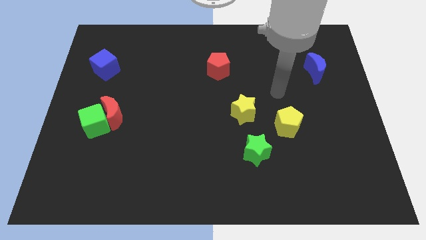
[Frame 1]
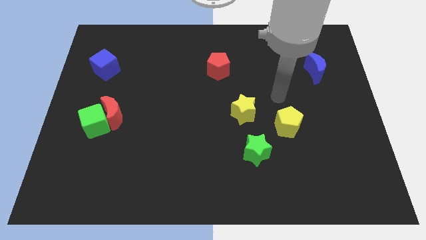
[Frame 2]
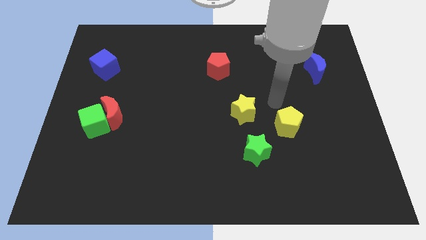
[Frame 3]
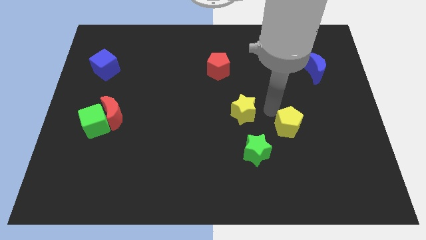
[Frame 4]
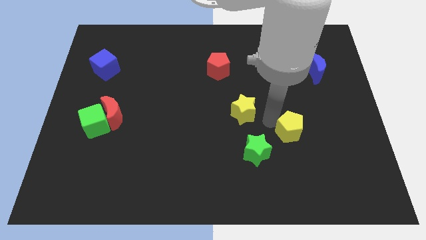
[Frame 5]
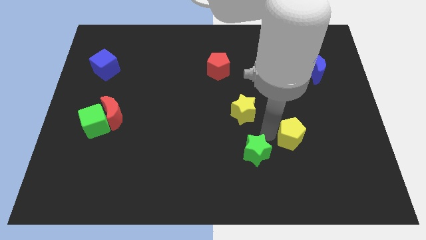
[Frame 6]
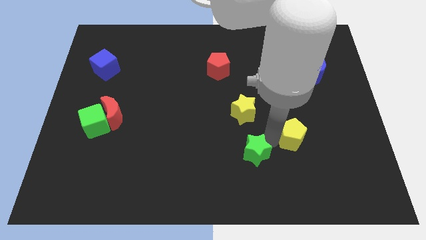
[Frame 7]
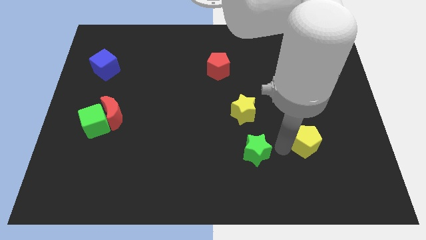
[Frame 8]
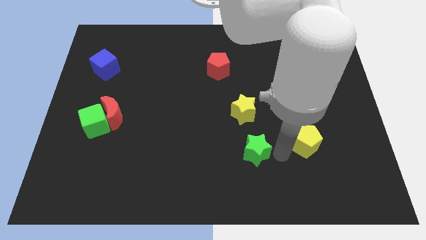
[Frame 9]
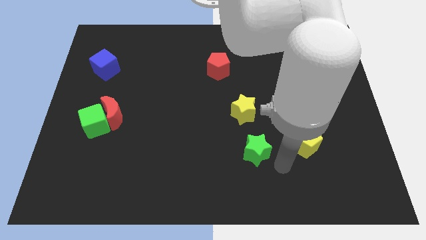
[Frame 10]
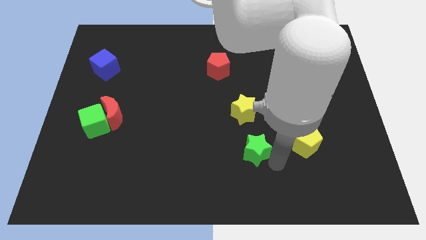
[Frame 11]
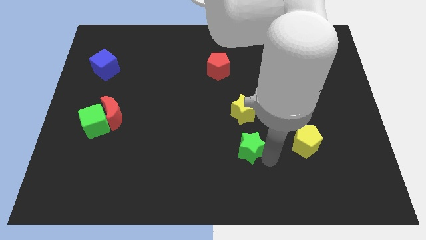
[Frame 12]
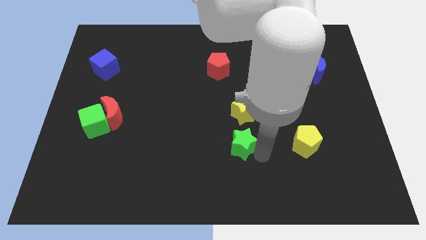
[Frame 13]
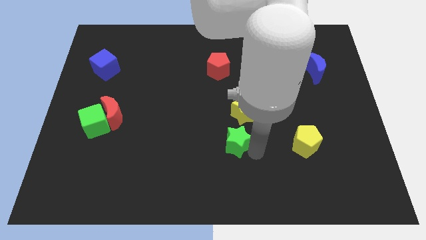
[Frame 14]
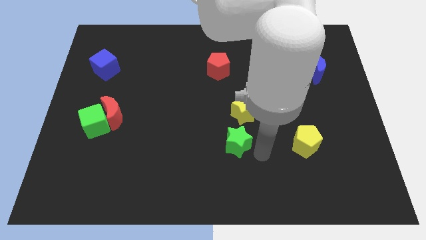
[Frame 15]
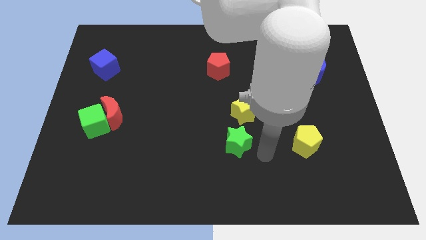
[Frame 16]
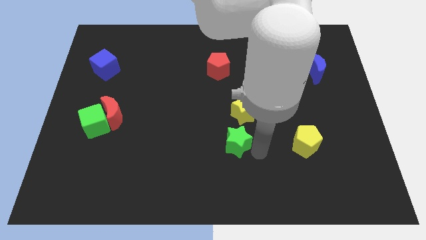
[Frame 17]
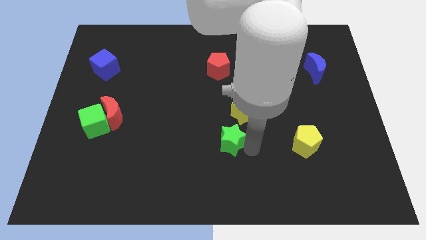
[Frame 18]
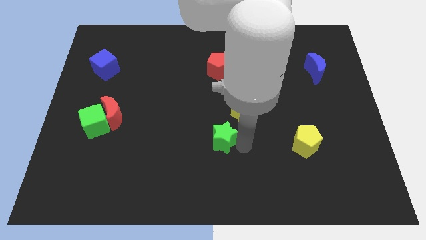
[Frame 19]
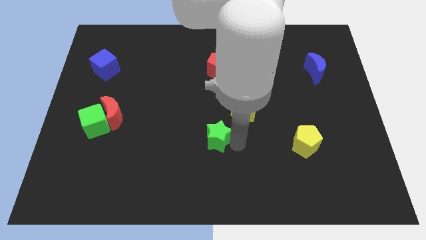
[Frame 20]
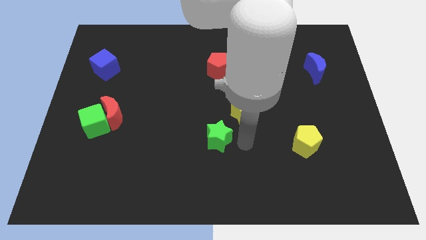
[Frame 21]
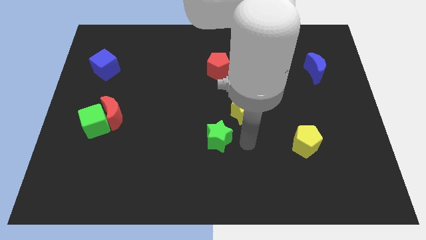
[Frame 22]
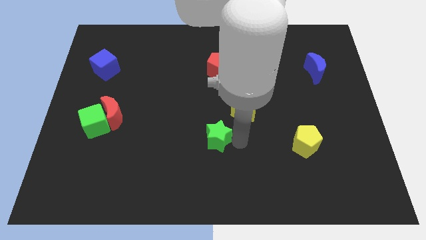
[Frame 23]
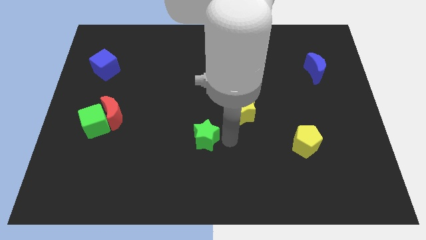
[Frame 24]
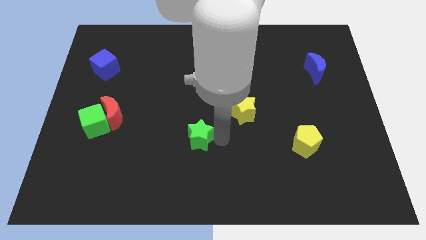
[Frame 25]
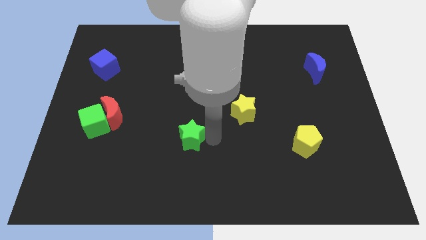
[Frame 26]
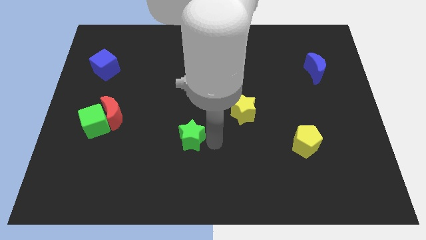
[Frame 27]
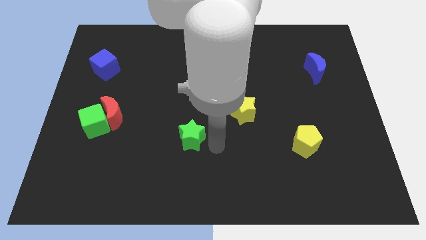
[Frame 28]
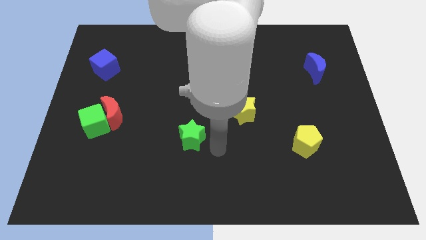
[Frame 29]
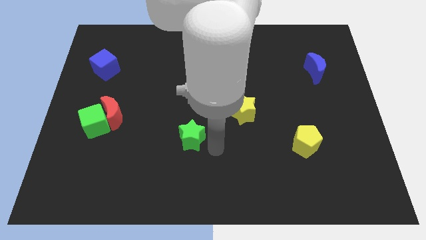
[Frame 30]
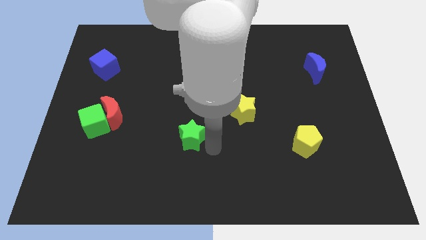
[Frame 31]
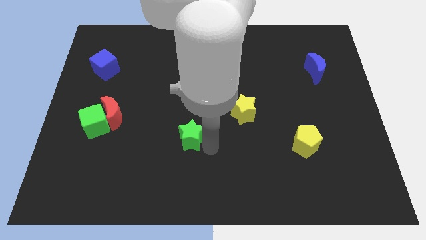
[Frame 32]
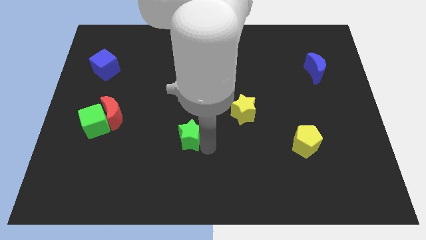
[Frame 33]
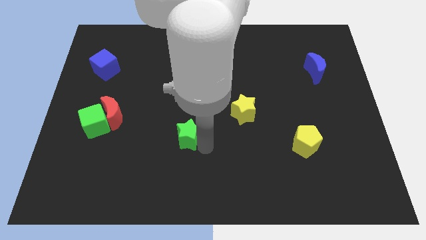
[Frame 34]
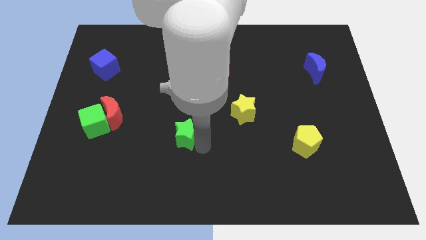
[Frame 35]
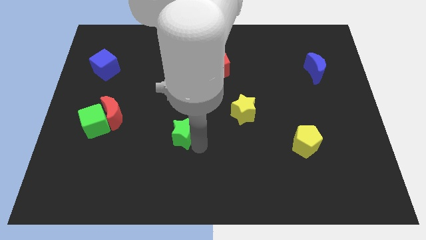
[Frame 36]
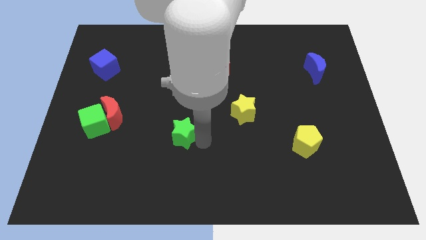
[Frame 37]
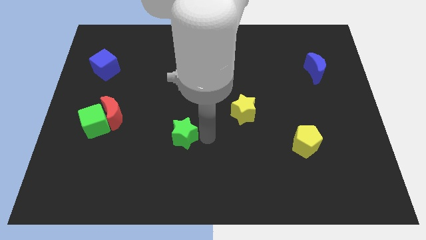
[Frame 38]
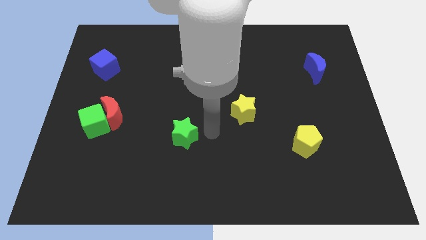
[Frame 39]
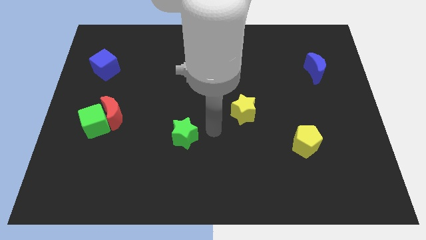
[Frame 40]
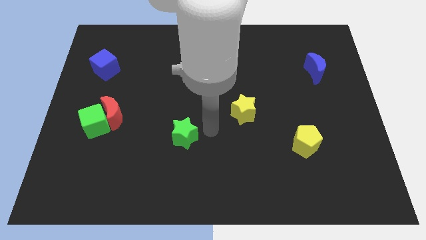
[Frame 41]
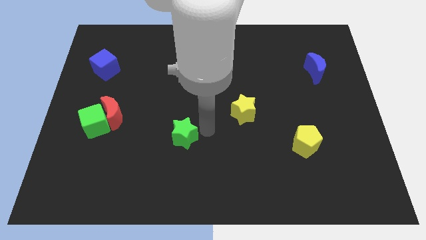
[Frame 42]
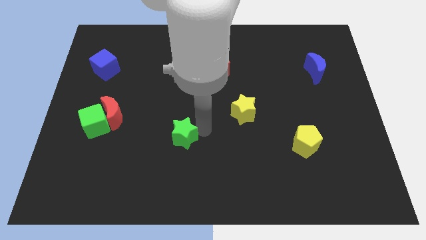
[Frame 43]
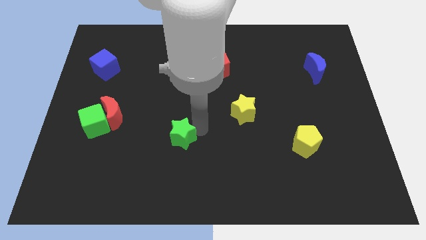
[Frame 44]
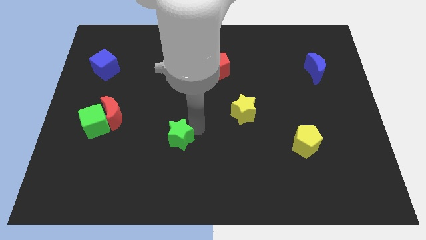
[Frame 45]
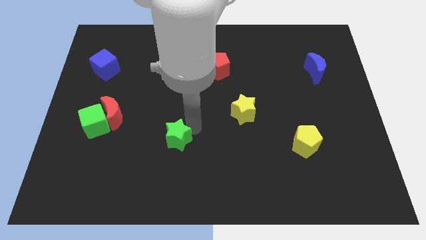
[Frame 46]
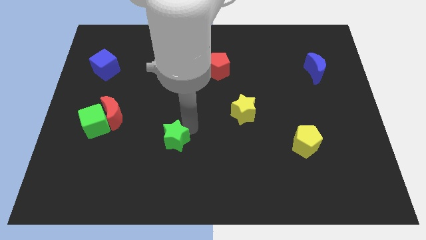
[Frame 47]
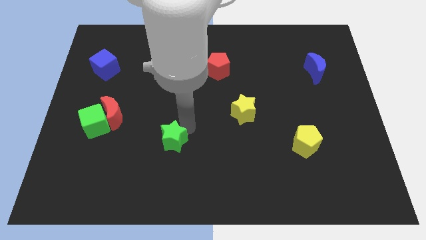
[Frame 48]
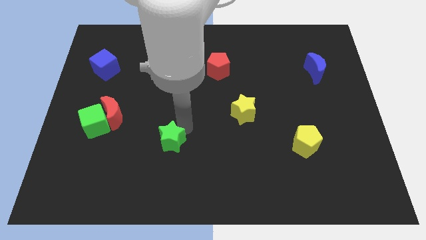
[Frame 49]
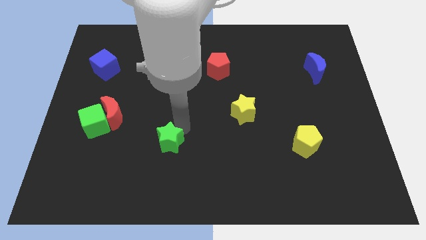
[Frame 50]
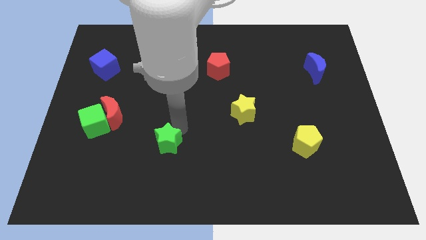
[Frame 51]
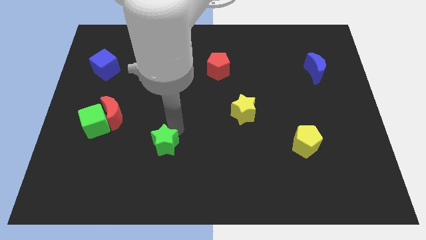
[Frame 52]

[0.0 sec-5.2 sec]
slide the green star left

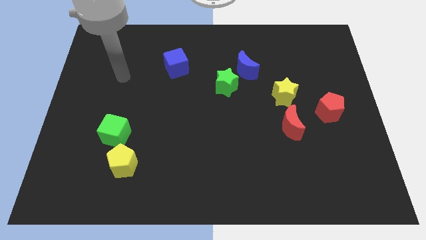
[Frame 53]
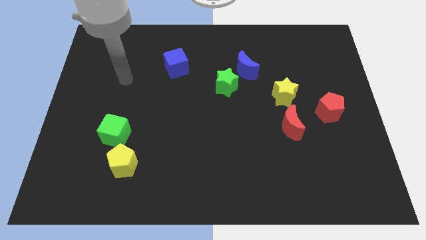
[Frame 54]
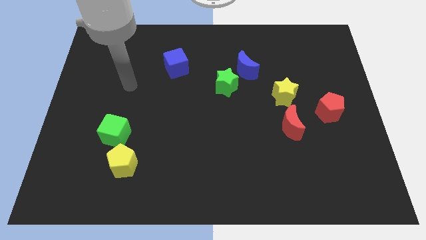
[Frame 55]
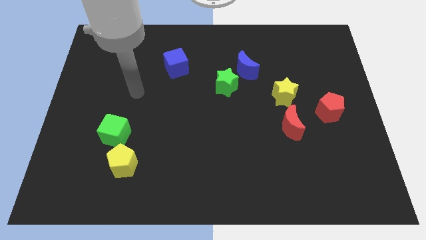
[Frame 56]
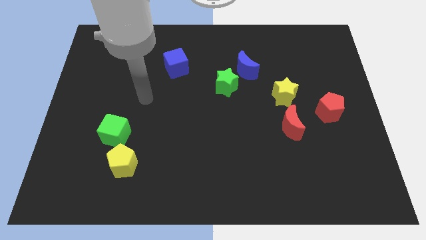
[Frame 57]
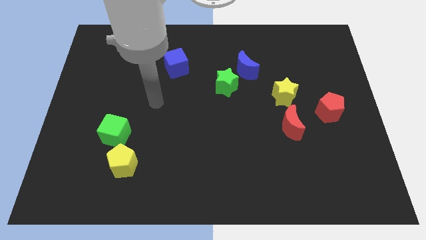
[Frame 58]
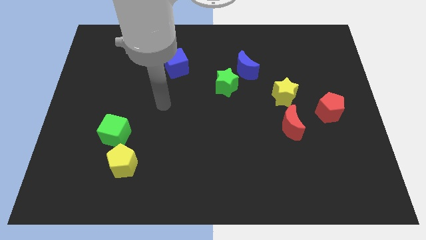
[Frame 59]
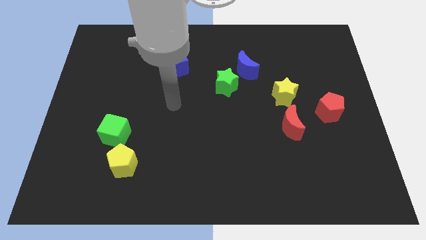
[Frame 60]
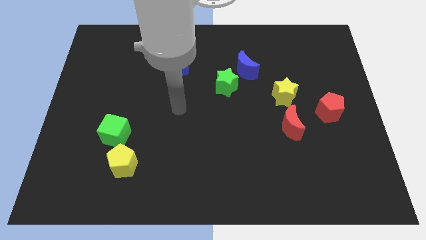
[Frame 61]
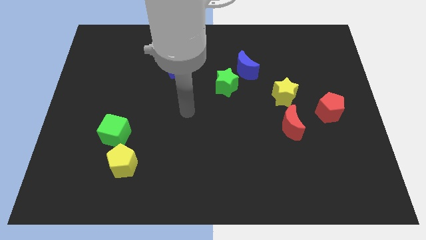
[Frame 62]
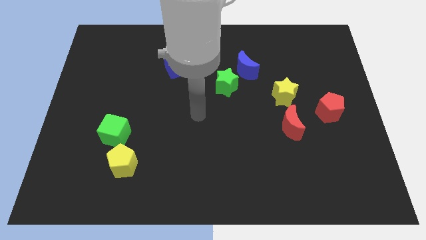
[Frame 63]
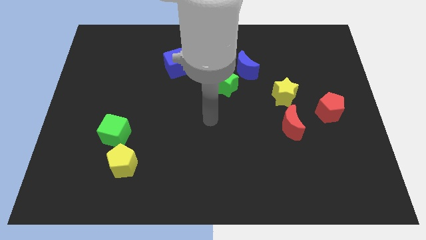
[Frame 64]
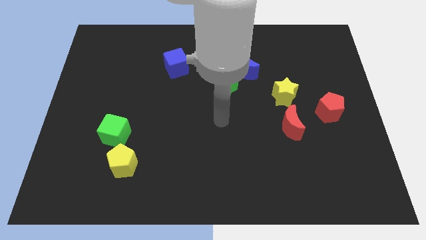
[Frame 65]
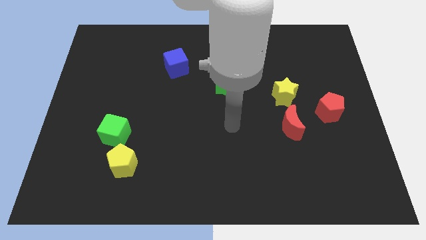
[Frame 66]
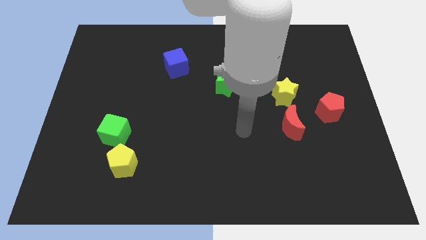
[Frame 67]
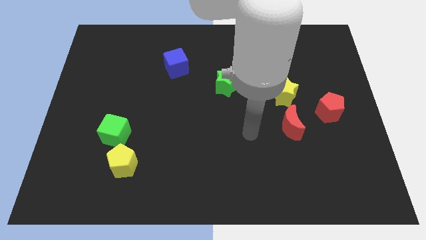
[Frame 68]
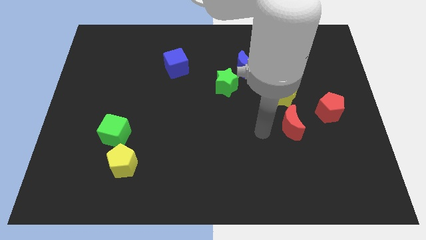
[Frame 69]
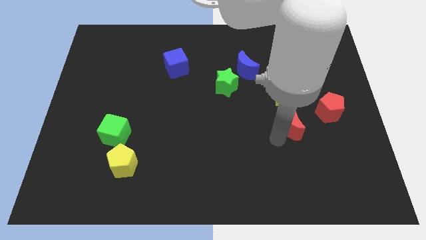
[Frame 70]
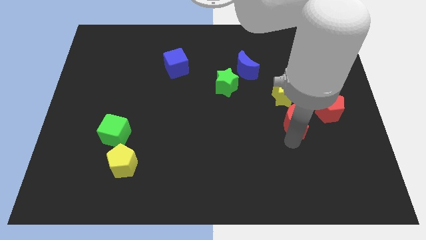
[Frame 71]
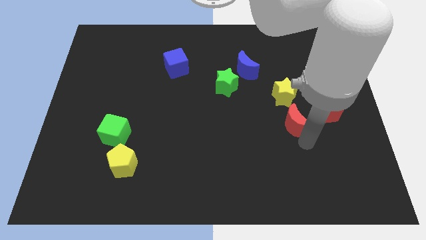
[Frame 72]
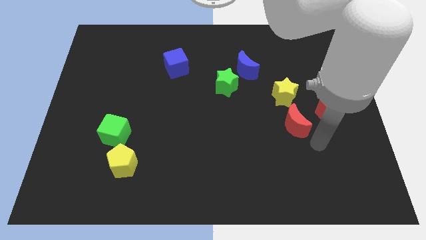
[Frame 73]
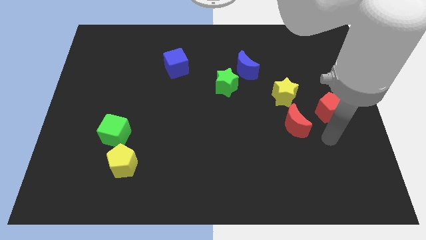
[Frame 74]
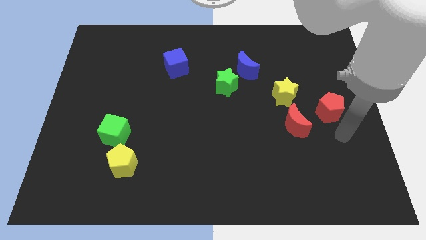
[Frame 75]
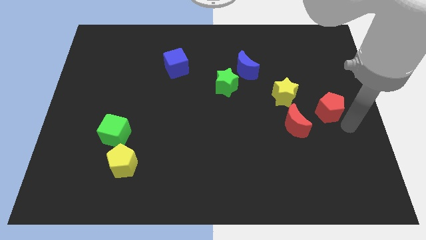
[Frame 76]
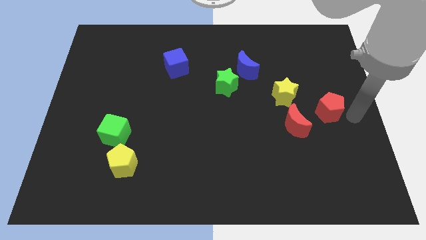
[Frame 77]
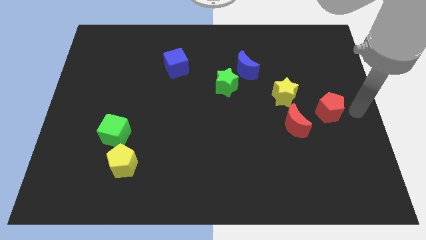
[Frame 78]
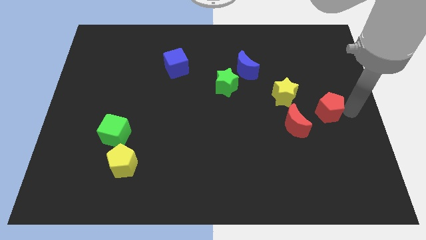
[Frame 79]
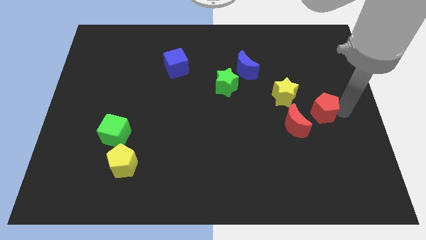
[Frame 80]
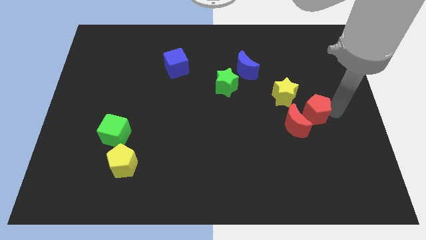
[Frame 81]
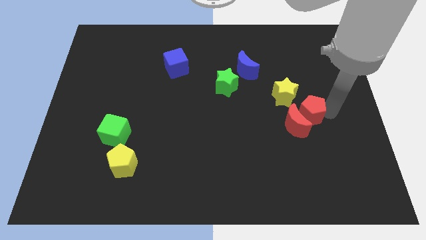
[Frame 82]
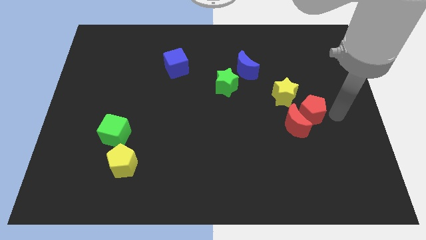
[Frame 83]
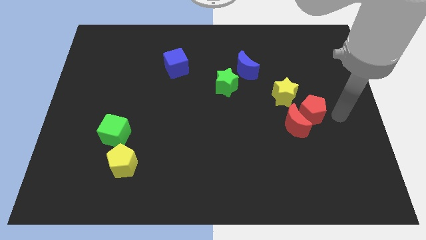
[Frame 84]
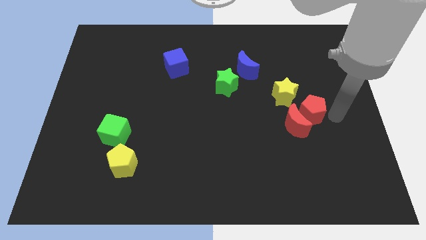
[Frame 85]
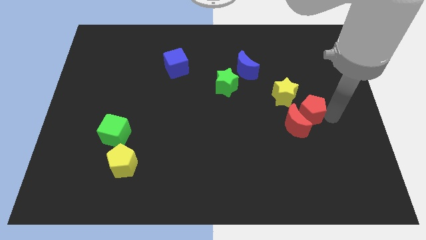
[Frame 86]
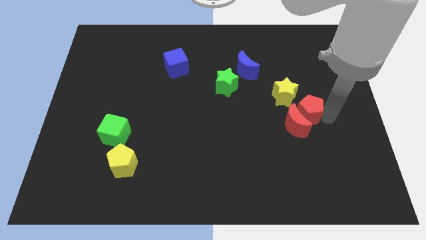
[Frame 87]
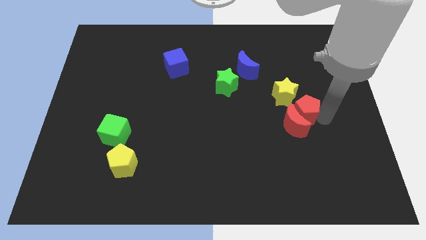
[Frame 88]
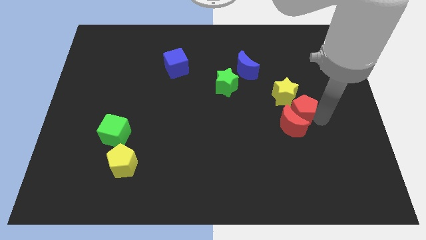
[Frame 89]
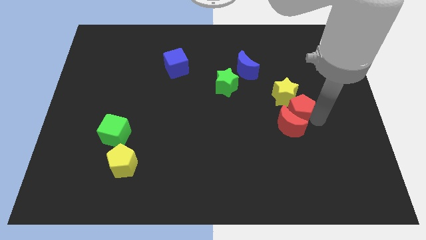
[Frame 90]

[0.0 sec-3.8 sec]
move the red pentagon a bit left
